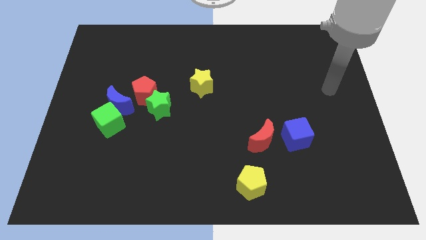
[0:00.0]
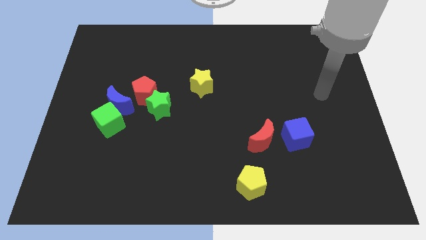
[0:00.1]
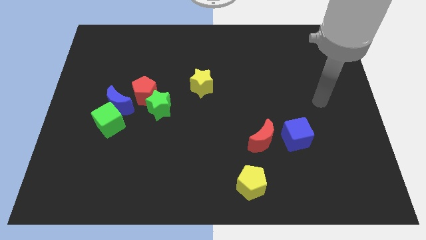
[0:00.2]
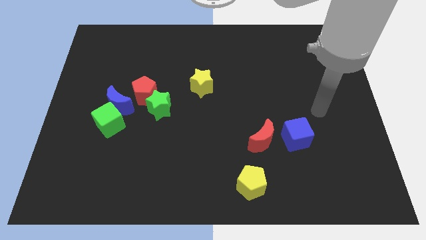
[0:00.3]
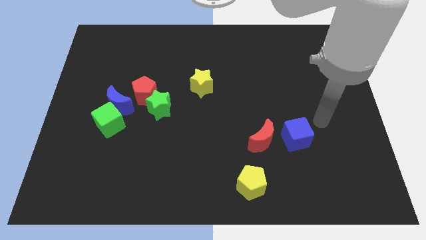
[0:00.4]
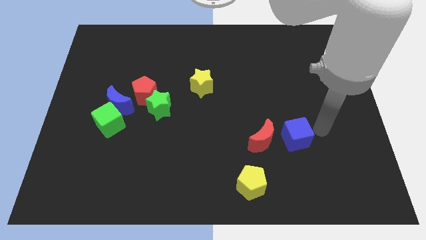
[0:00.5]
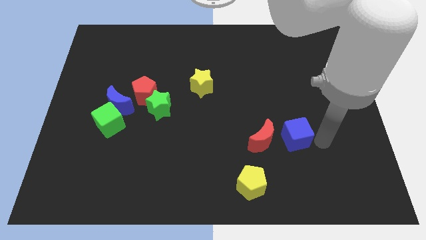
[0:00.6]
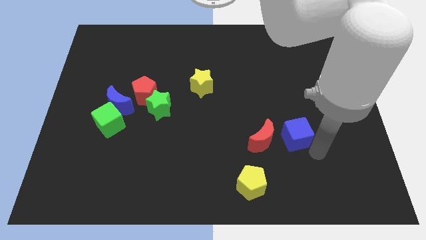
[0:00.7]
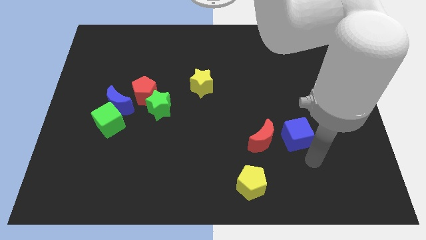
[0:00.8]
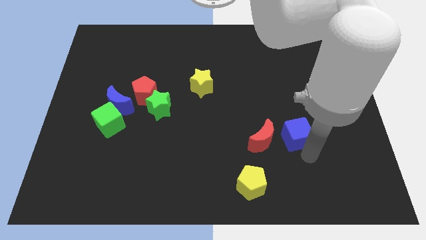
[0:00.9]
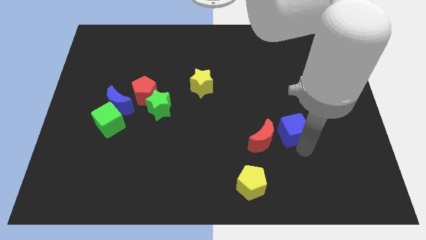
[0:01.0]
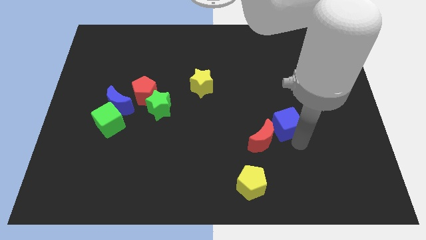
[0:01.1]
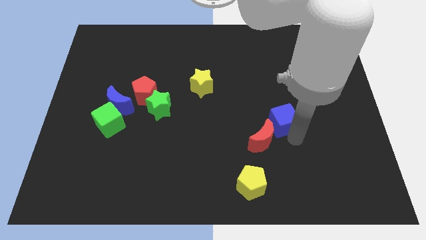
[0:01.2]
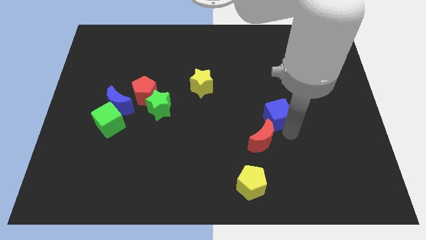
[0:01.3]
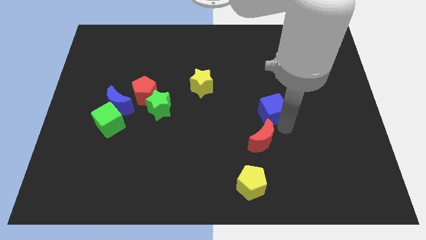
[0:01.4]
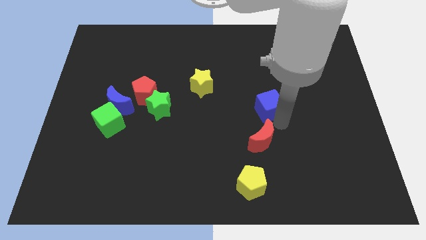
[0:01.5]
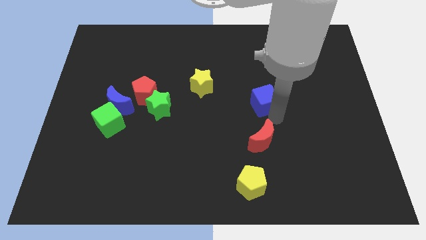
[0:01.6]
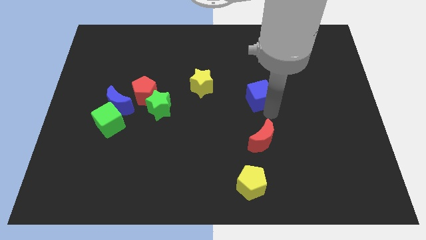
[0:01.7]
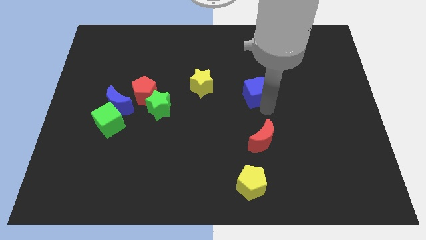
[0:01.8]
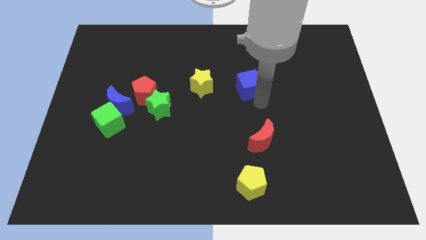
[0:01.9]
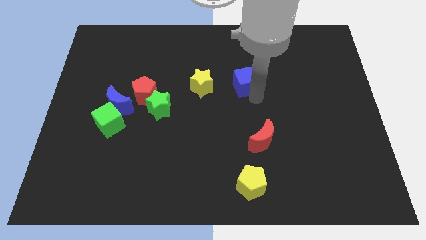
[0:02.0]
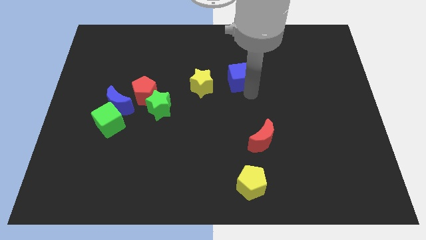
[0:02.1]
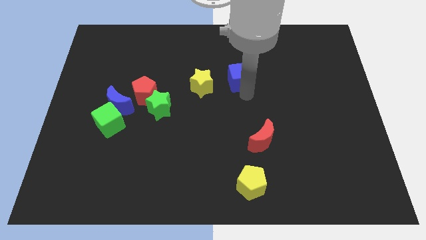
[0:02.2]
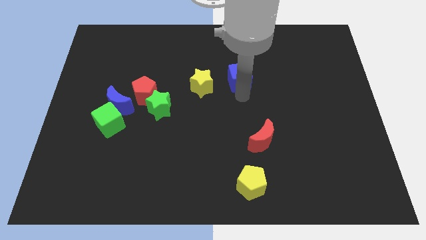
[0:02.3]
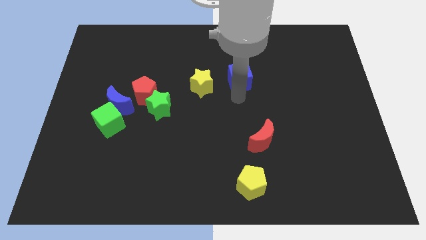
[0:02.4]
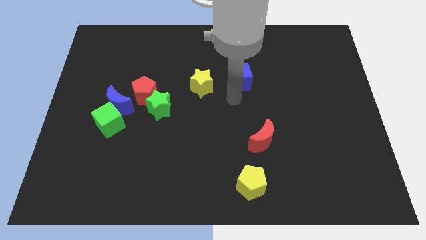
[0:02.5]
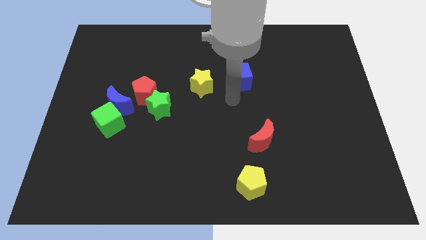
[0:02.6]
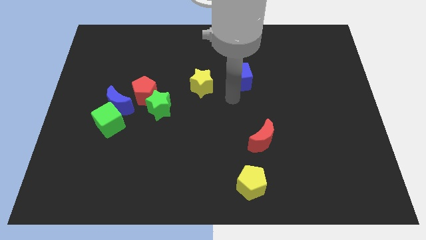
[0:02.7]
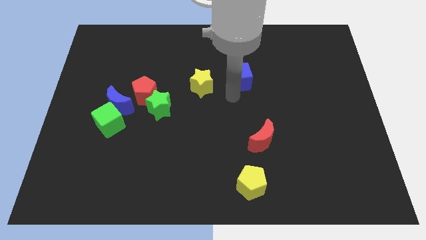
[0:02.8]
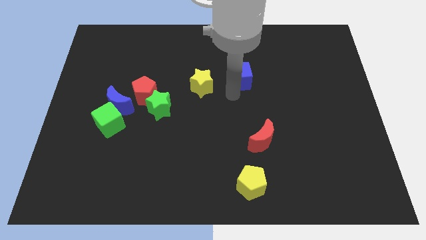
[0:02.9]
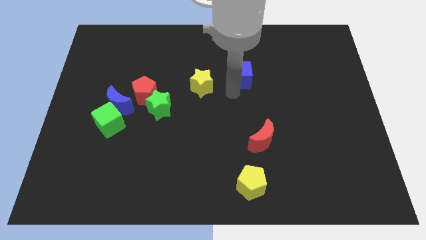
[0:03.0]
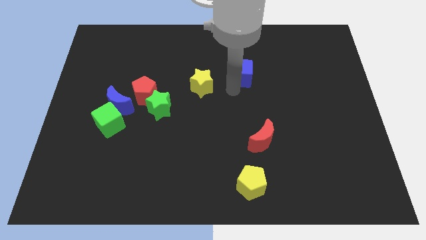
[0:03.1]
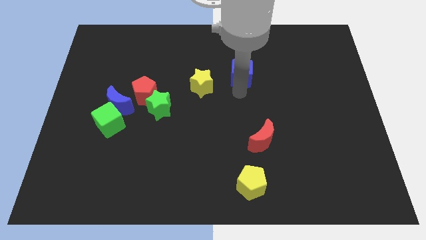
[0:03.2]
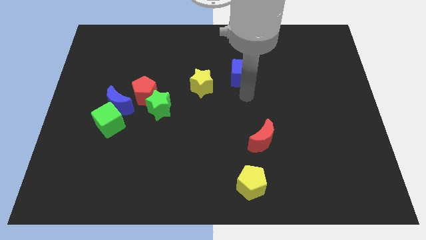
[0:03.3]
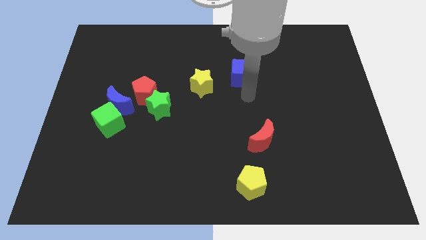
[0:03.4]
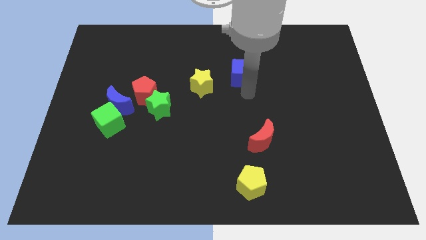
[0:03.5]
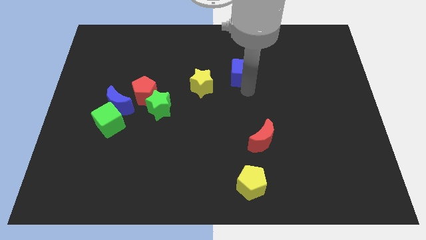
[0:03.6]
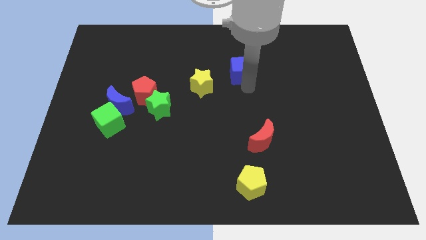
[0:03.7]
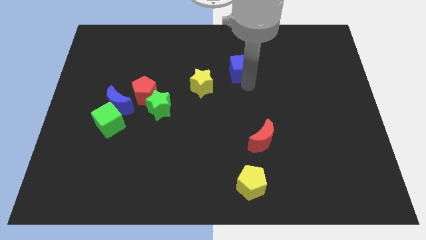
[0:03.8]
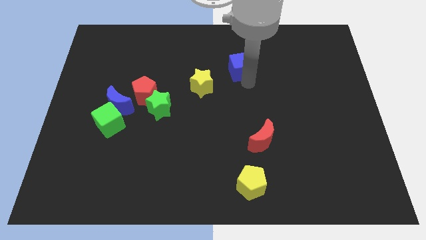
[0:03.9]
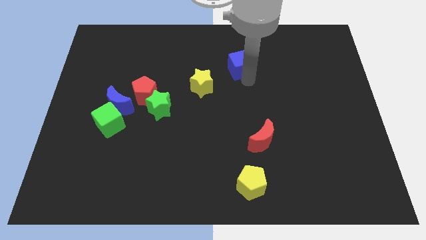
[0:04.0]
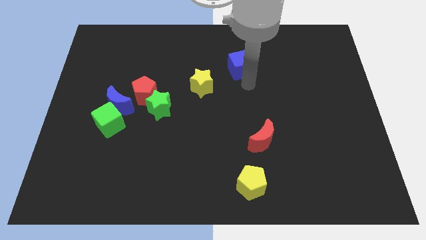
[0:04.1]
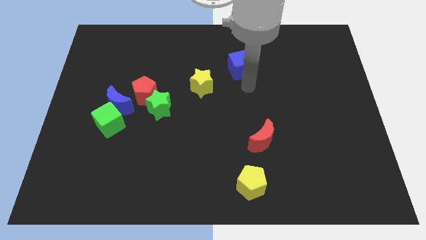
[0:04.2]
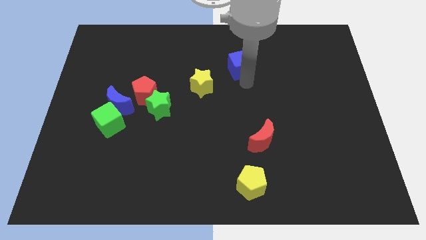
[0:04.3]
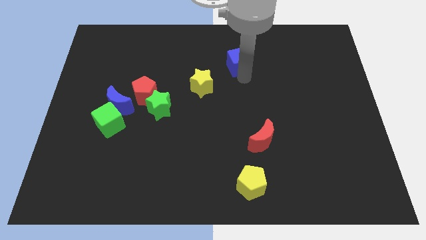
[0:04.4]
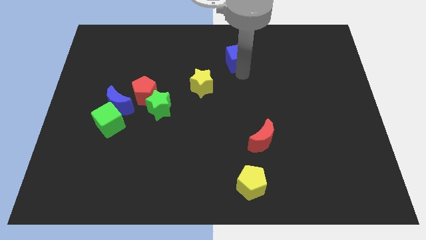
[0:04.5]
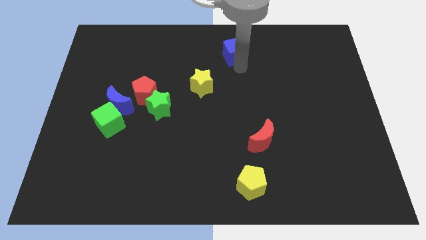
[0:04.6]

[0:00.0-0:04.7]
put the blue cube to the top side

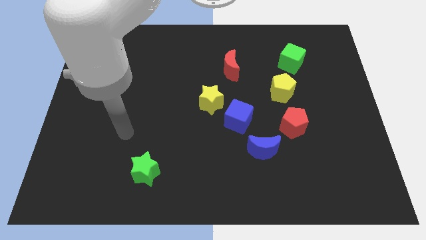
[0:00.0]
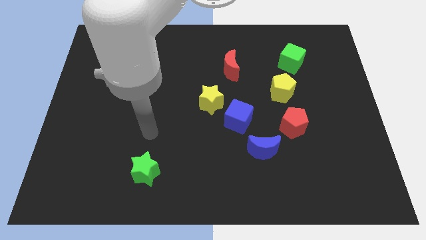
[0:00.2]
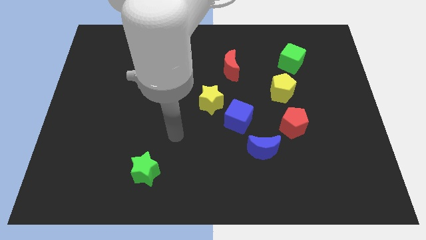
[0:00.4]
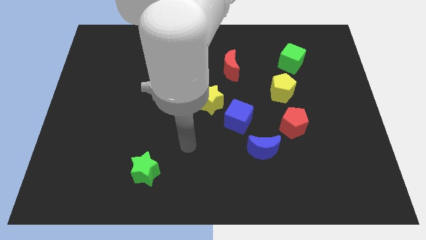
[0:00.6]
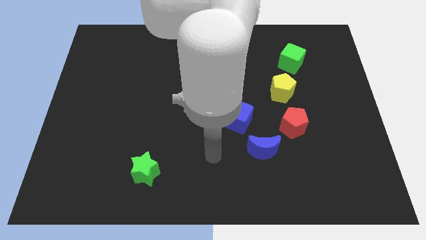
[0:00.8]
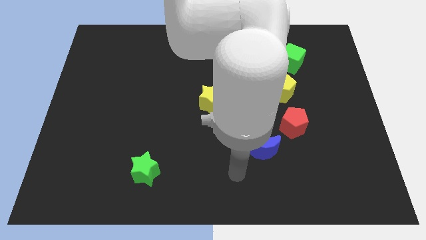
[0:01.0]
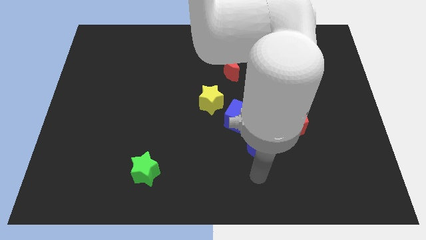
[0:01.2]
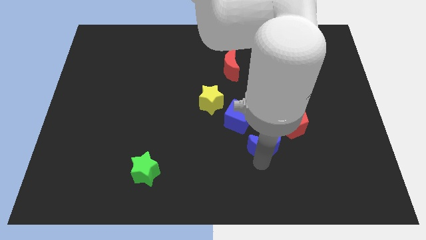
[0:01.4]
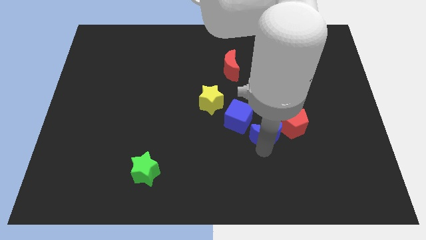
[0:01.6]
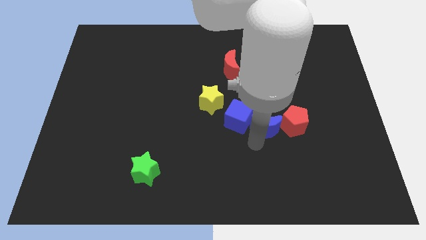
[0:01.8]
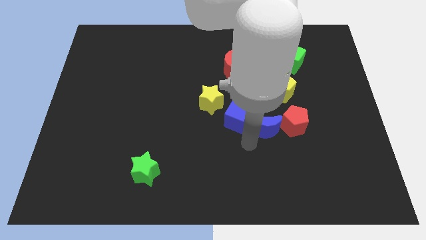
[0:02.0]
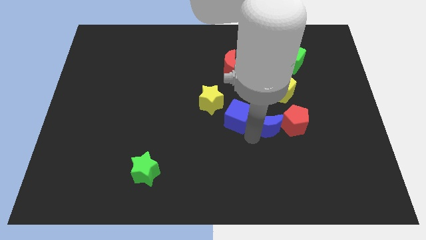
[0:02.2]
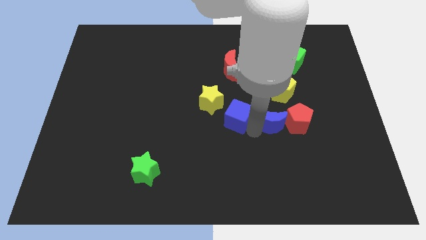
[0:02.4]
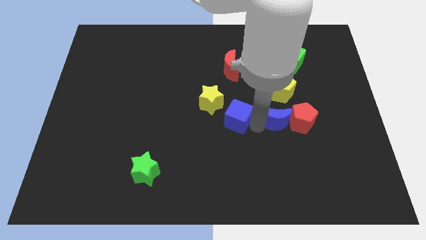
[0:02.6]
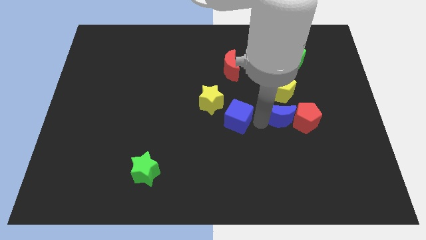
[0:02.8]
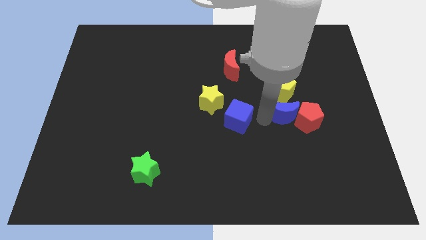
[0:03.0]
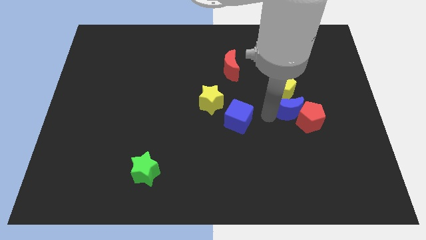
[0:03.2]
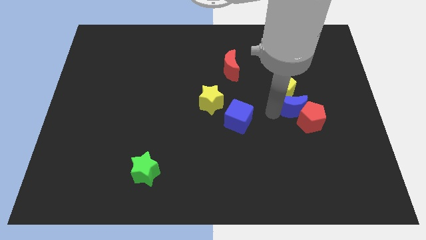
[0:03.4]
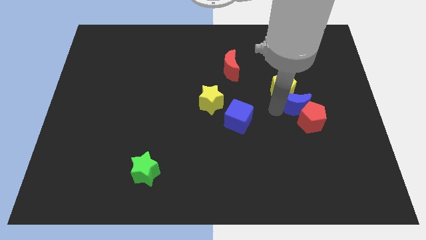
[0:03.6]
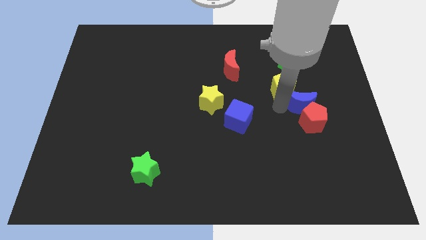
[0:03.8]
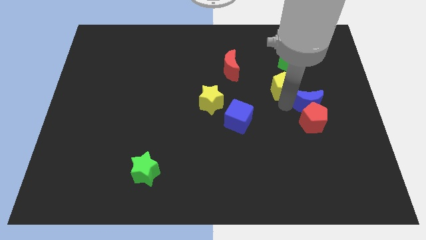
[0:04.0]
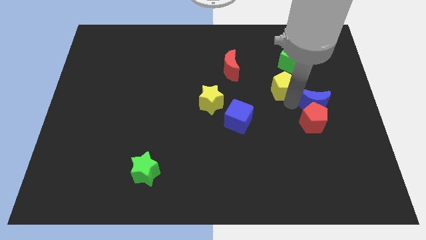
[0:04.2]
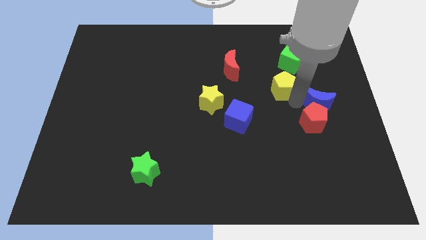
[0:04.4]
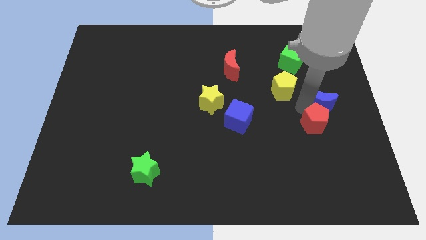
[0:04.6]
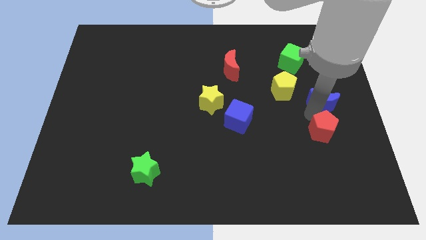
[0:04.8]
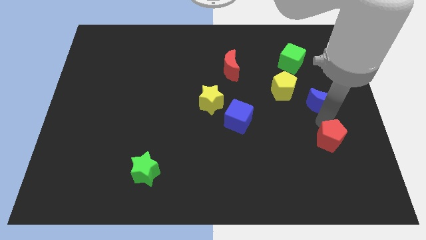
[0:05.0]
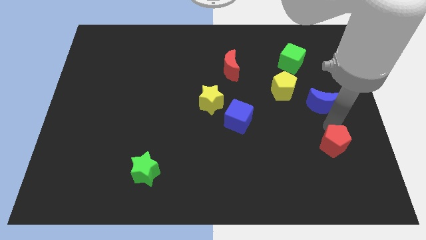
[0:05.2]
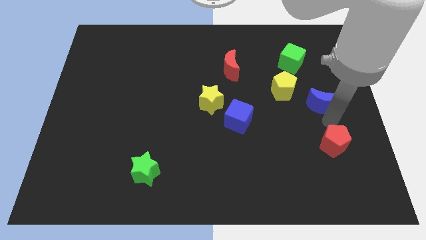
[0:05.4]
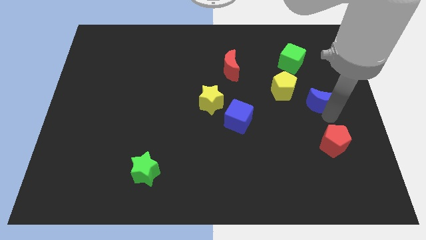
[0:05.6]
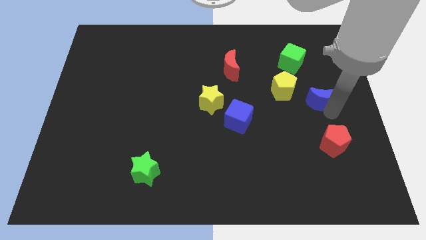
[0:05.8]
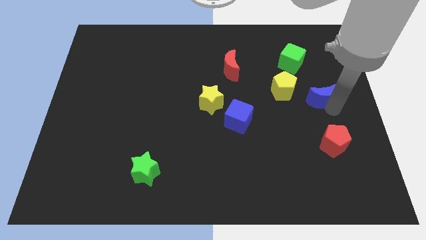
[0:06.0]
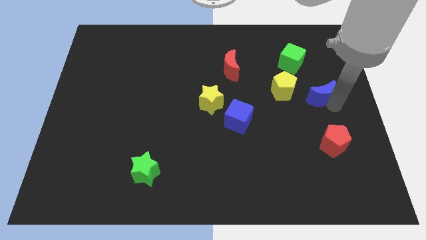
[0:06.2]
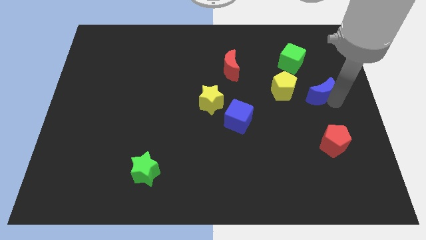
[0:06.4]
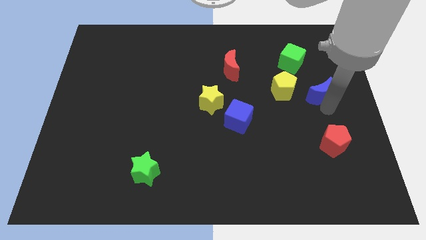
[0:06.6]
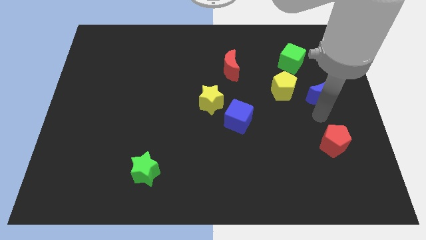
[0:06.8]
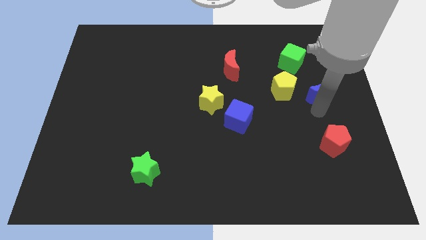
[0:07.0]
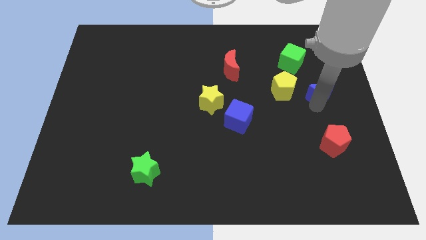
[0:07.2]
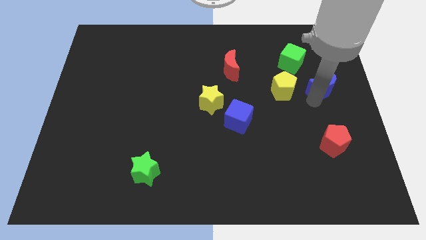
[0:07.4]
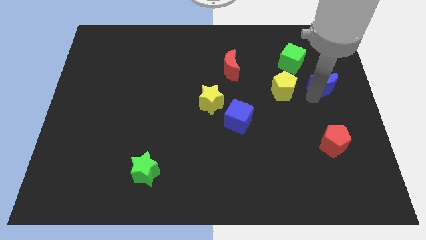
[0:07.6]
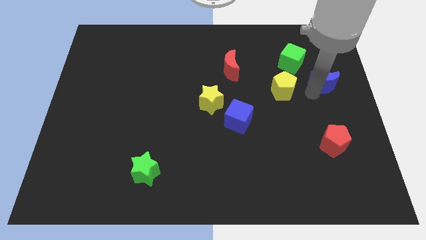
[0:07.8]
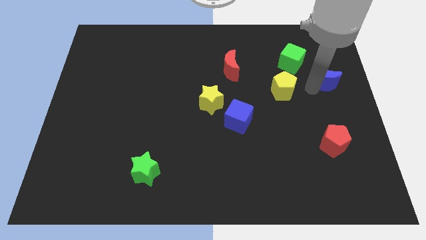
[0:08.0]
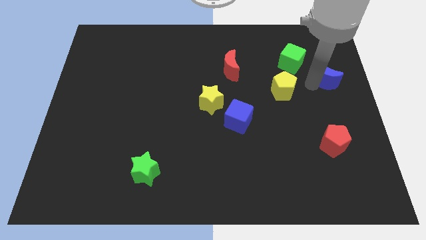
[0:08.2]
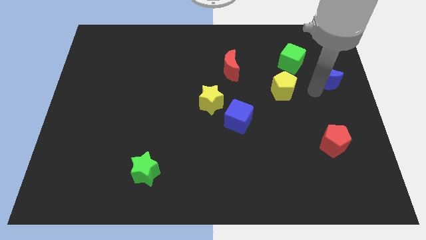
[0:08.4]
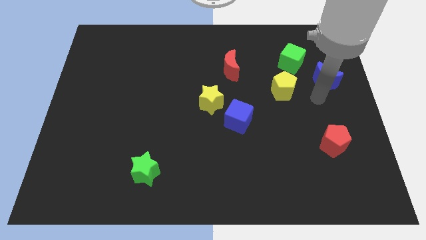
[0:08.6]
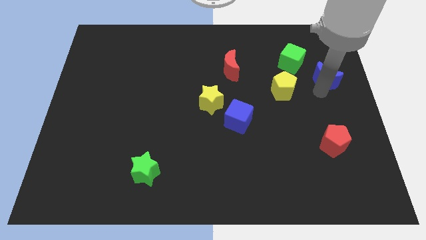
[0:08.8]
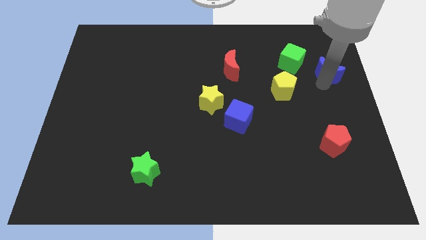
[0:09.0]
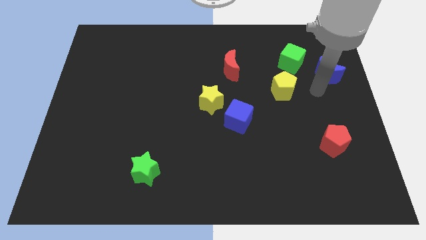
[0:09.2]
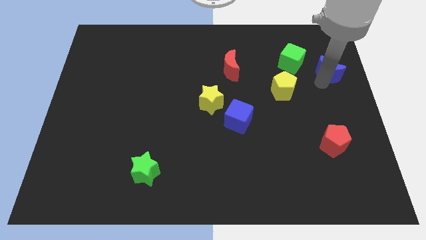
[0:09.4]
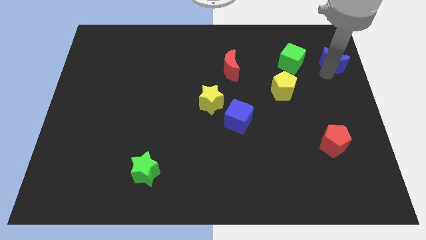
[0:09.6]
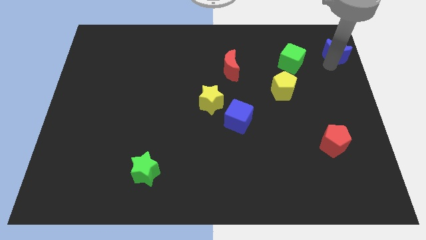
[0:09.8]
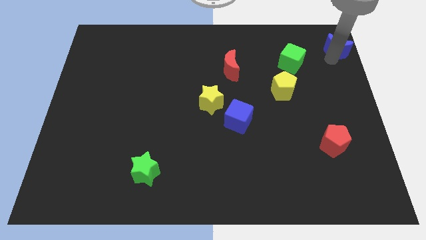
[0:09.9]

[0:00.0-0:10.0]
push the blue moon to the upper right corner
